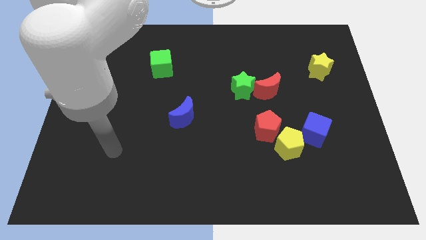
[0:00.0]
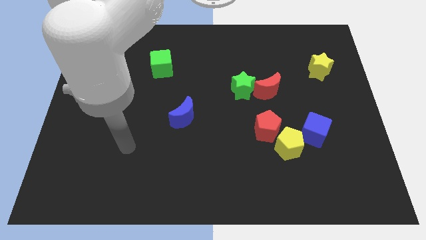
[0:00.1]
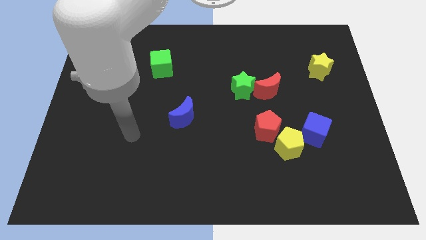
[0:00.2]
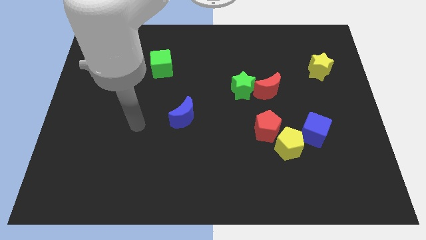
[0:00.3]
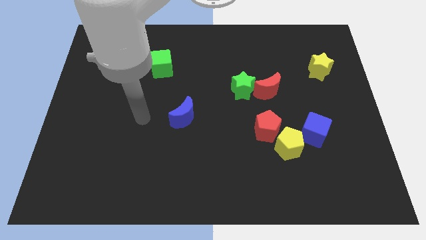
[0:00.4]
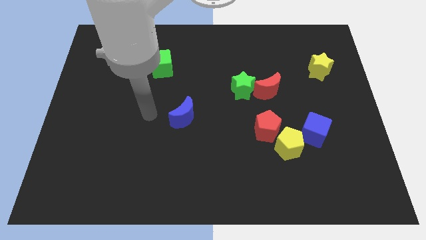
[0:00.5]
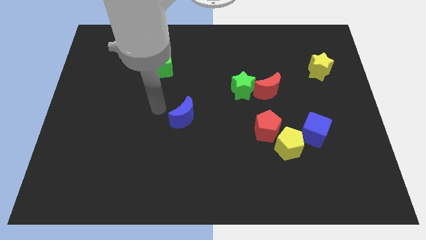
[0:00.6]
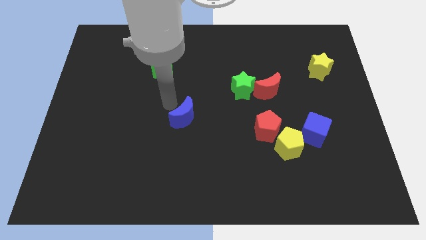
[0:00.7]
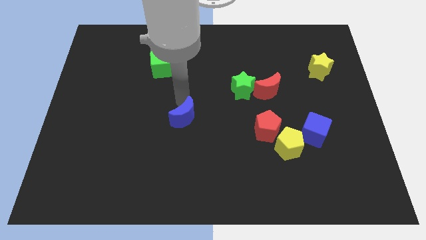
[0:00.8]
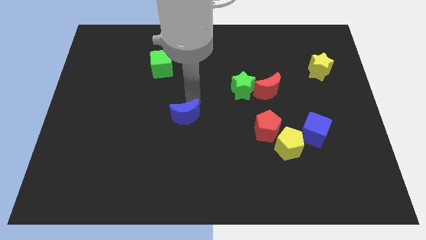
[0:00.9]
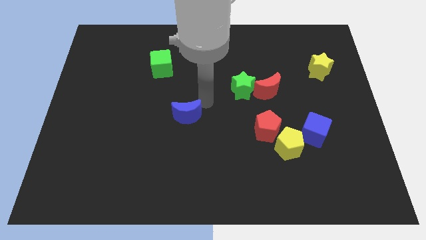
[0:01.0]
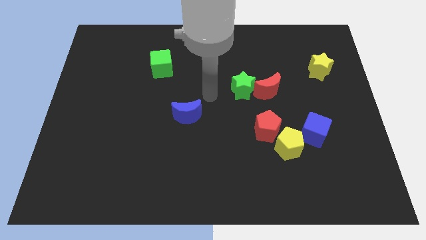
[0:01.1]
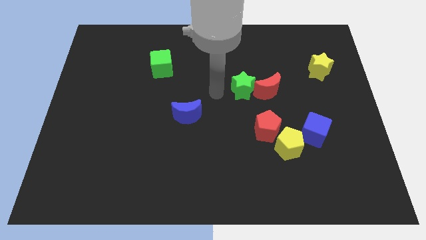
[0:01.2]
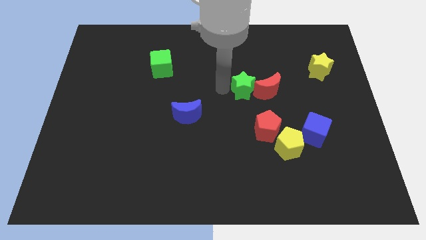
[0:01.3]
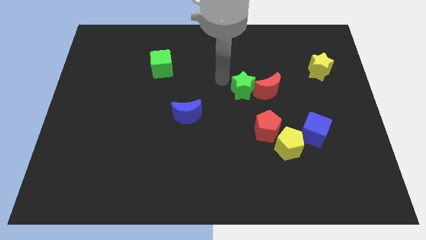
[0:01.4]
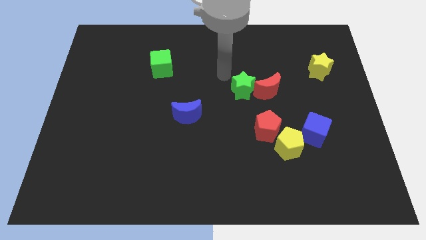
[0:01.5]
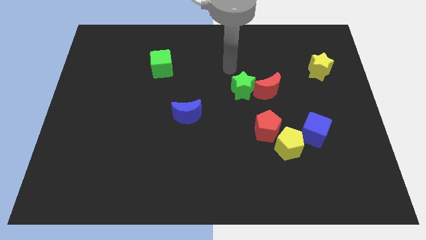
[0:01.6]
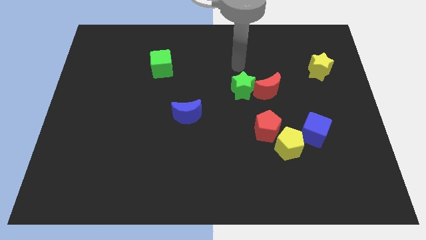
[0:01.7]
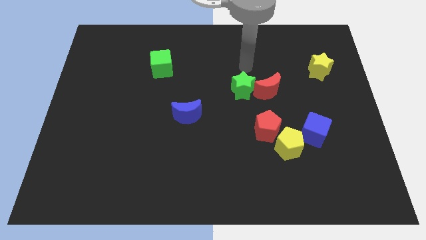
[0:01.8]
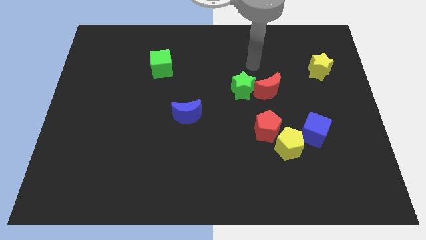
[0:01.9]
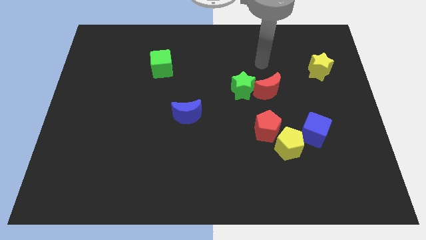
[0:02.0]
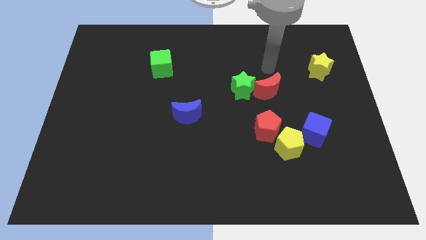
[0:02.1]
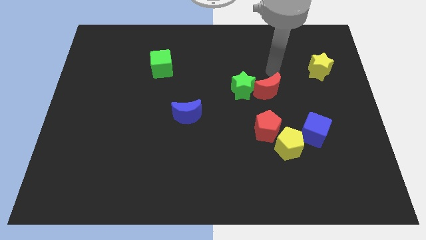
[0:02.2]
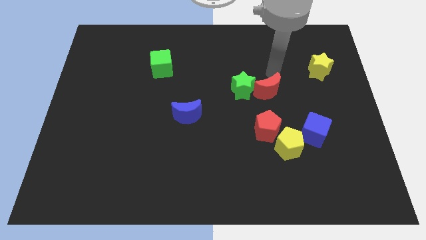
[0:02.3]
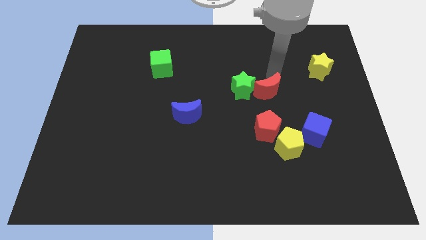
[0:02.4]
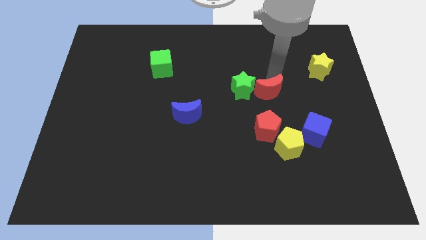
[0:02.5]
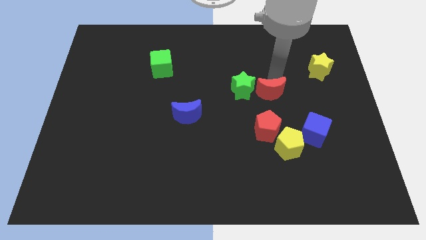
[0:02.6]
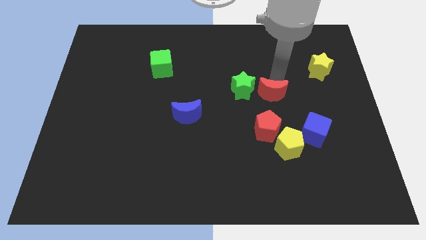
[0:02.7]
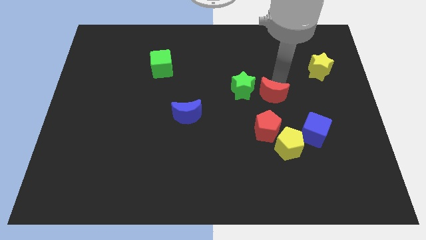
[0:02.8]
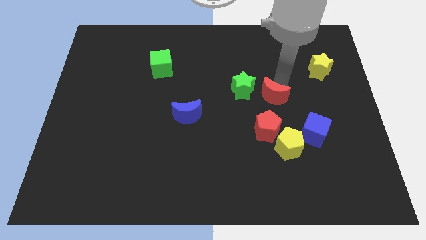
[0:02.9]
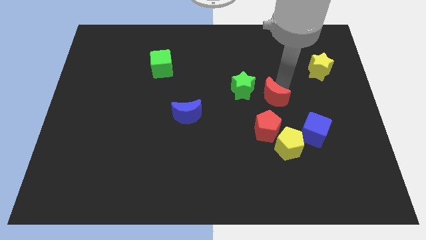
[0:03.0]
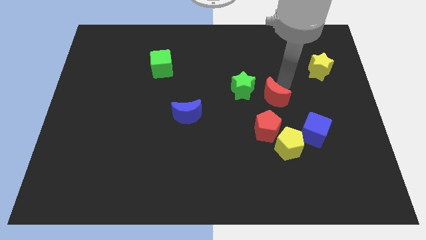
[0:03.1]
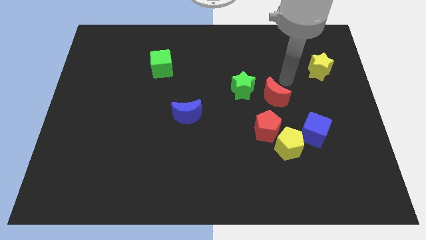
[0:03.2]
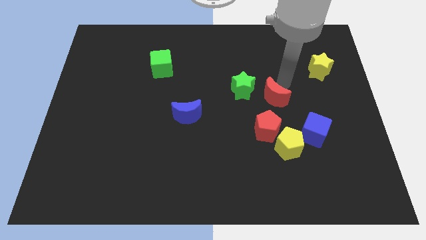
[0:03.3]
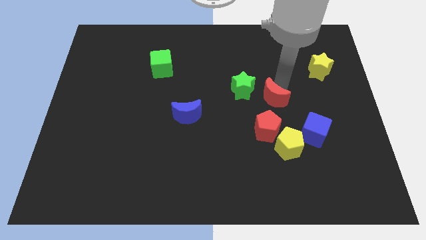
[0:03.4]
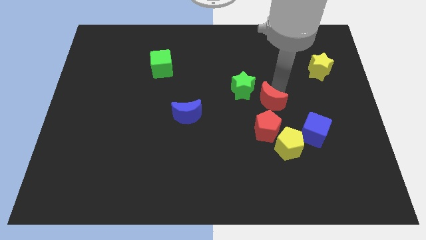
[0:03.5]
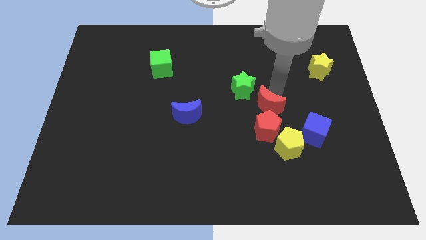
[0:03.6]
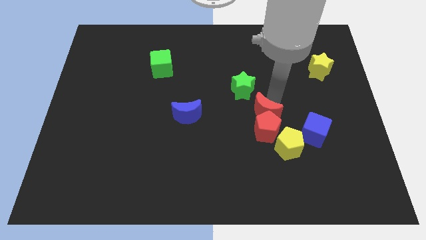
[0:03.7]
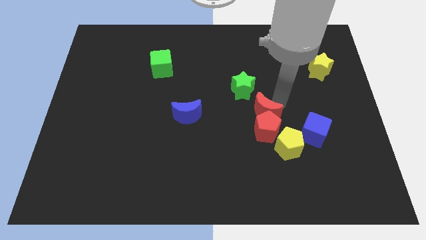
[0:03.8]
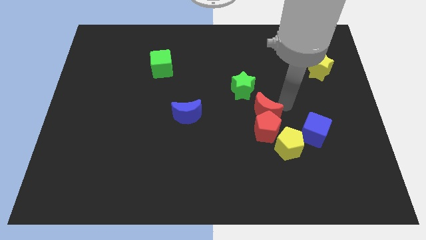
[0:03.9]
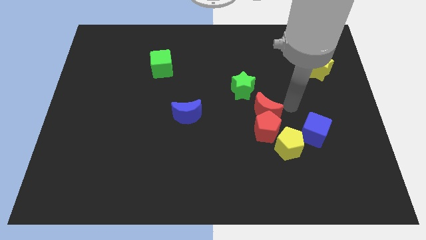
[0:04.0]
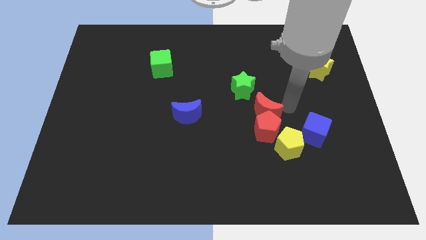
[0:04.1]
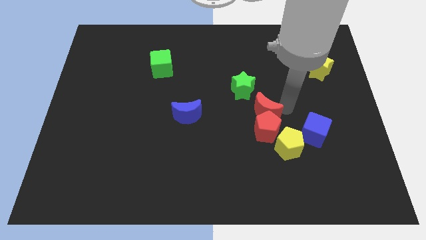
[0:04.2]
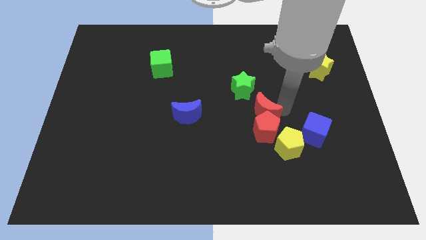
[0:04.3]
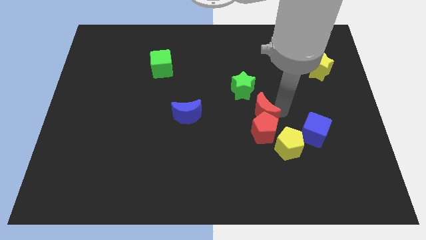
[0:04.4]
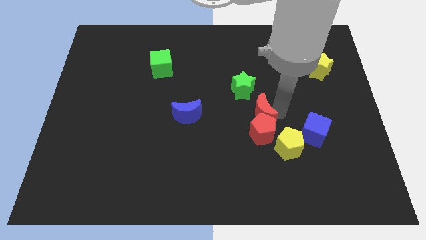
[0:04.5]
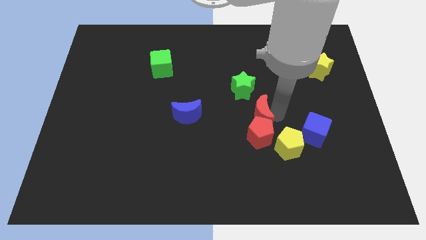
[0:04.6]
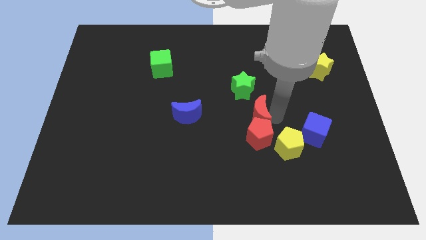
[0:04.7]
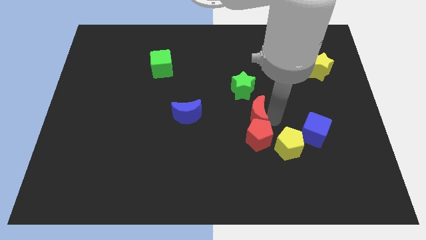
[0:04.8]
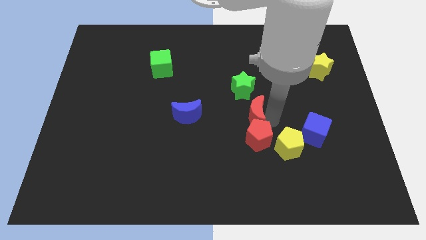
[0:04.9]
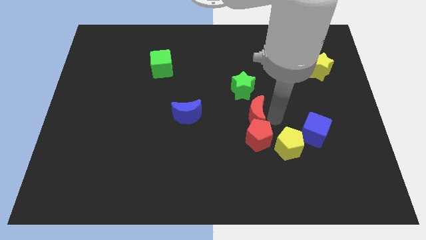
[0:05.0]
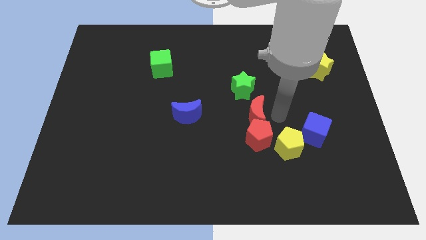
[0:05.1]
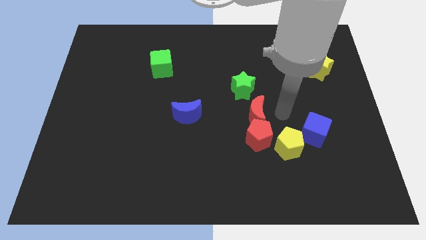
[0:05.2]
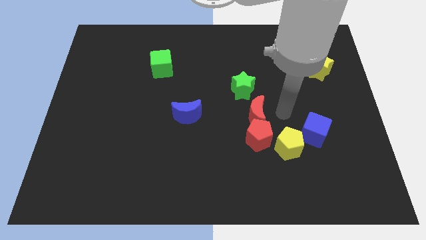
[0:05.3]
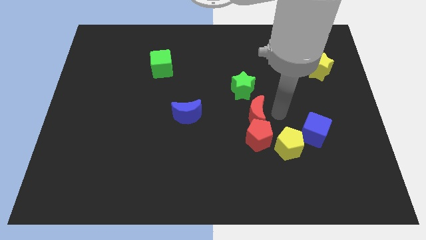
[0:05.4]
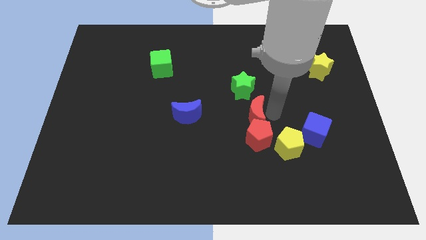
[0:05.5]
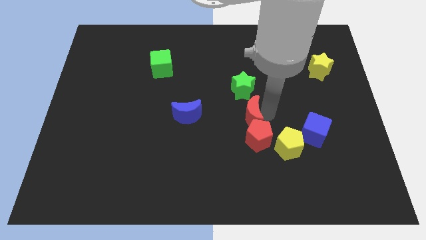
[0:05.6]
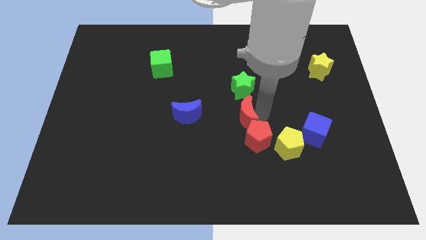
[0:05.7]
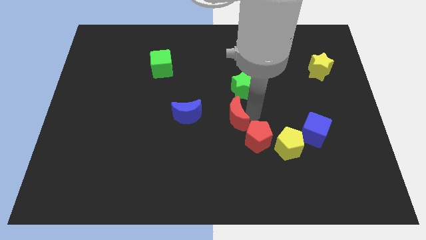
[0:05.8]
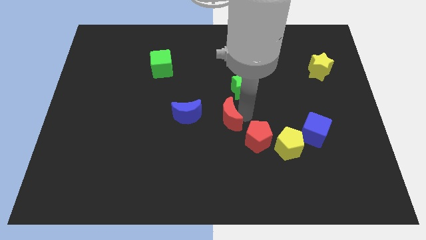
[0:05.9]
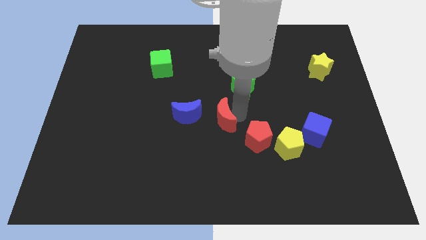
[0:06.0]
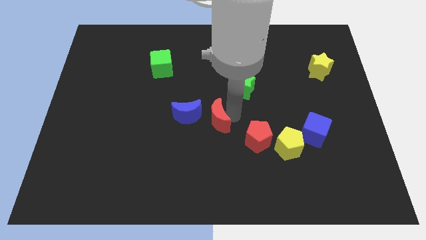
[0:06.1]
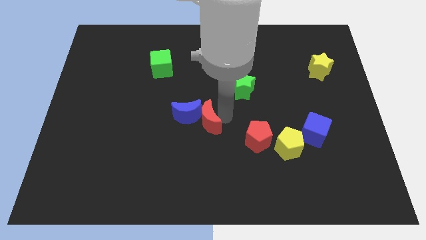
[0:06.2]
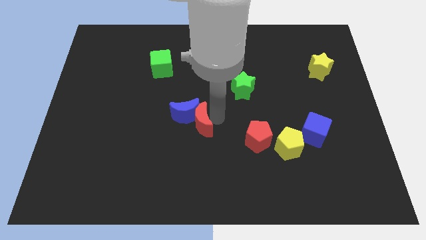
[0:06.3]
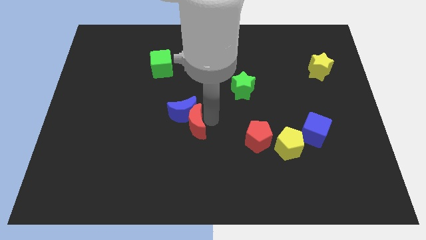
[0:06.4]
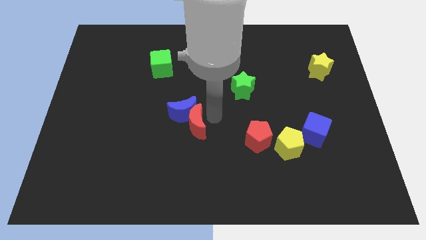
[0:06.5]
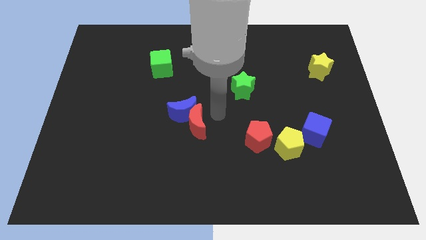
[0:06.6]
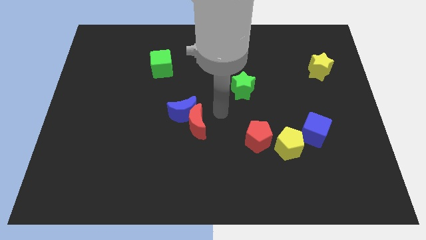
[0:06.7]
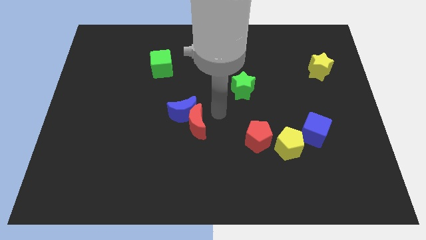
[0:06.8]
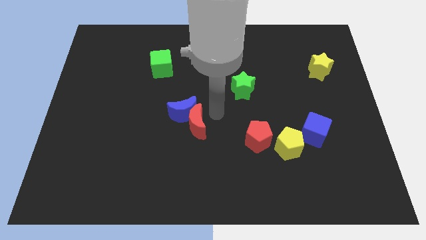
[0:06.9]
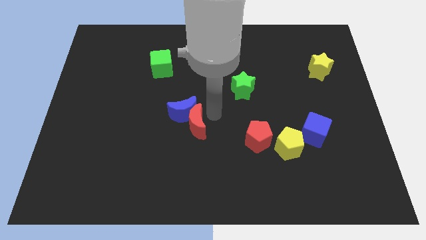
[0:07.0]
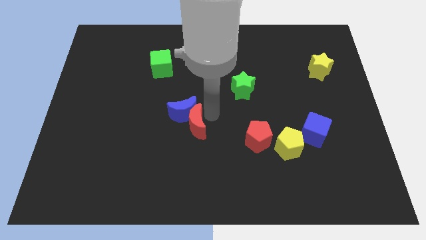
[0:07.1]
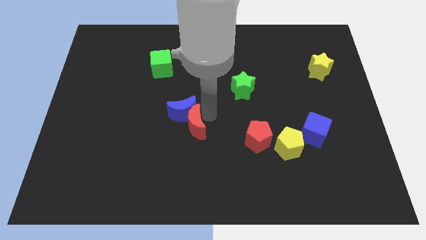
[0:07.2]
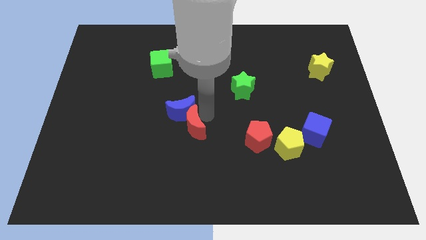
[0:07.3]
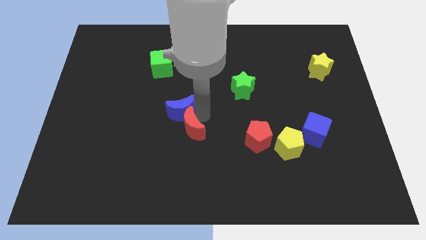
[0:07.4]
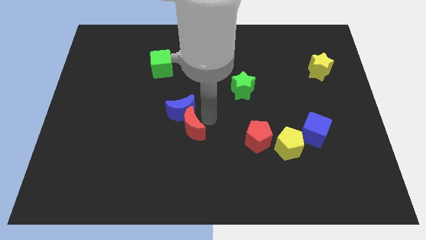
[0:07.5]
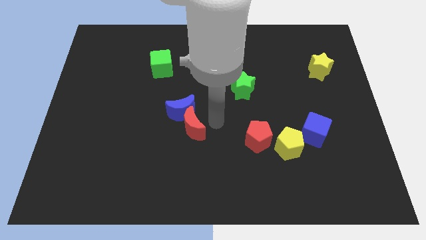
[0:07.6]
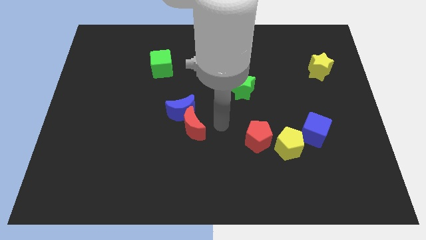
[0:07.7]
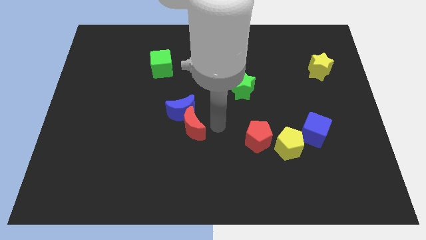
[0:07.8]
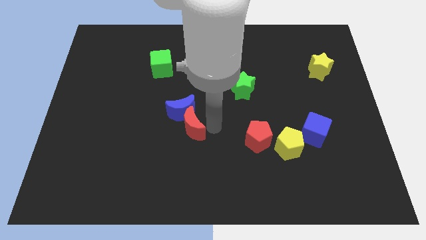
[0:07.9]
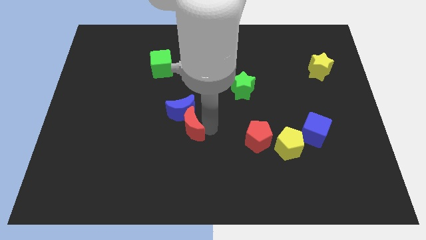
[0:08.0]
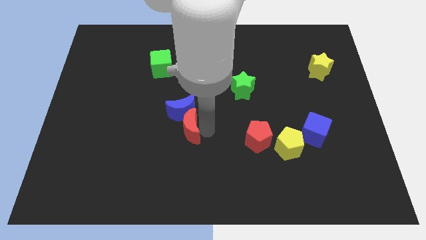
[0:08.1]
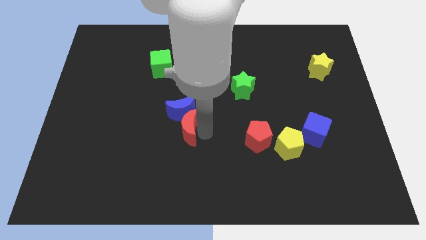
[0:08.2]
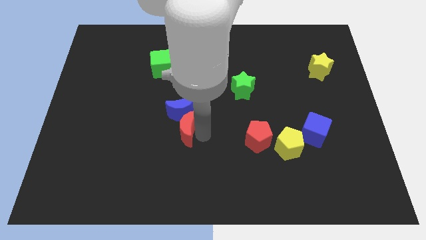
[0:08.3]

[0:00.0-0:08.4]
push the red moon to the bottom left of the blue moon
